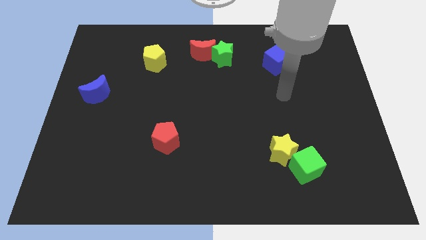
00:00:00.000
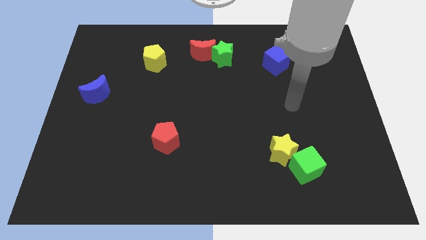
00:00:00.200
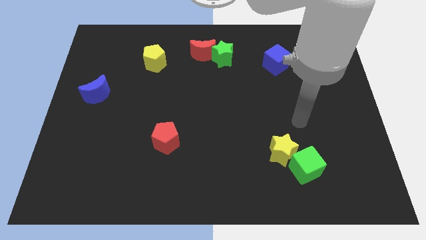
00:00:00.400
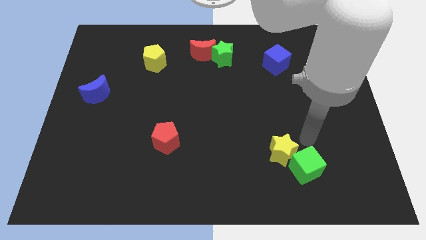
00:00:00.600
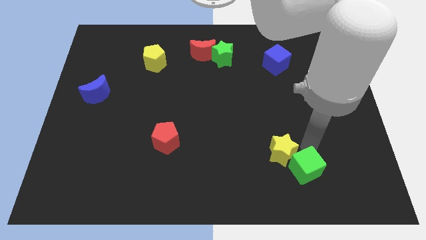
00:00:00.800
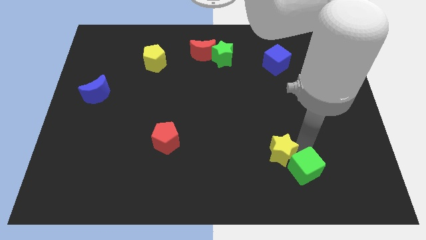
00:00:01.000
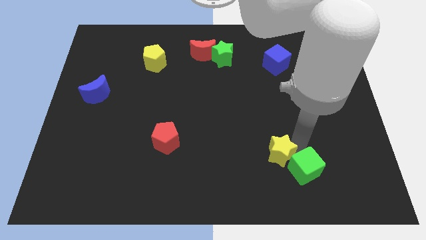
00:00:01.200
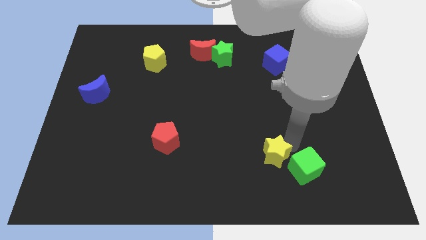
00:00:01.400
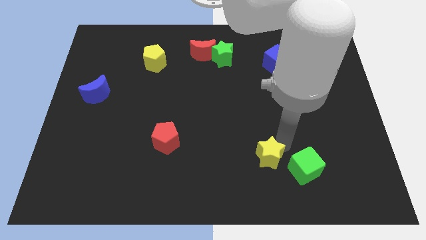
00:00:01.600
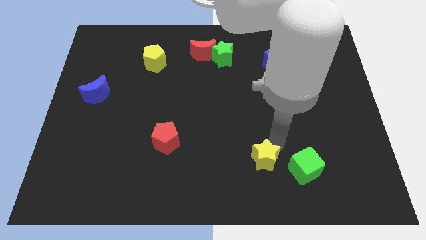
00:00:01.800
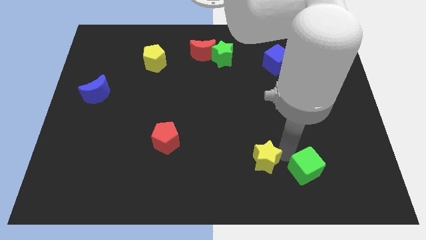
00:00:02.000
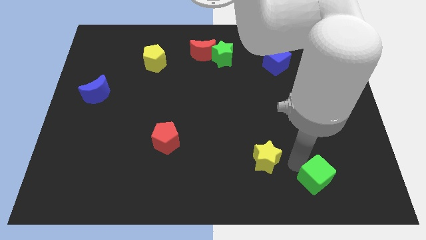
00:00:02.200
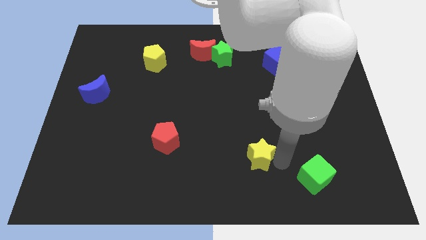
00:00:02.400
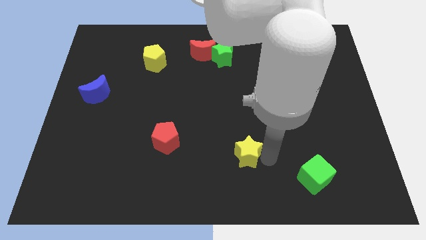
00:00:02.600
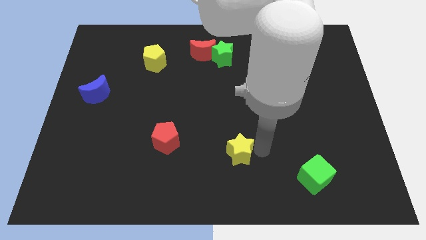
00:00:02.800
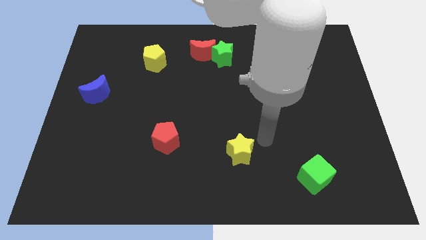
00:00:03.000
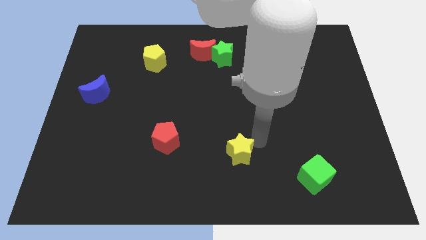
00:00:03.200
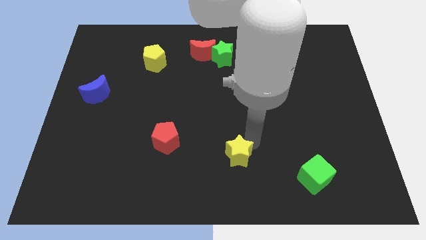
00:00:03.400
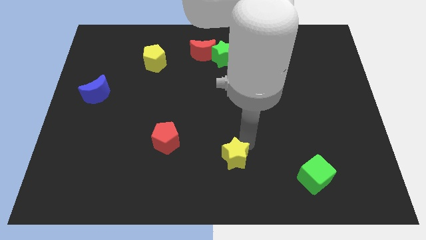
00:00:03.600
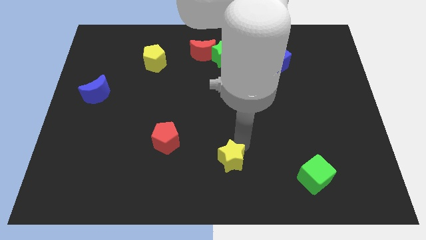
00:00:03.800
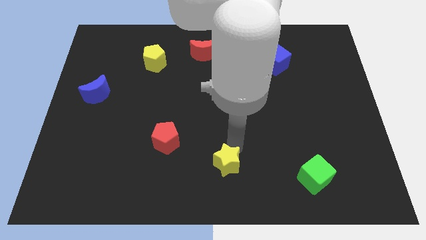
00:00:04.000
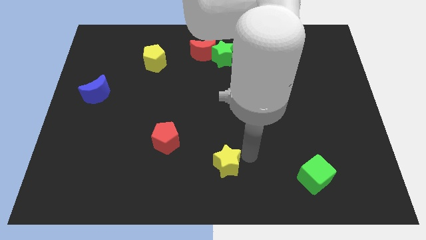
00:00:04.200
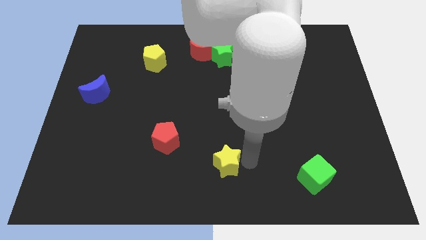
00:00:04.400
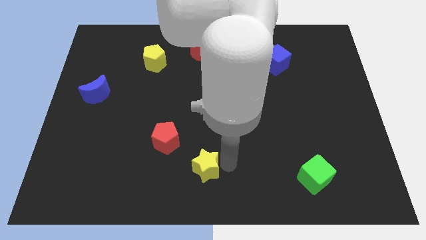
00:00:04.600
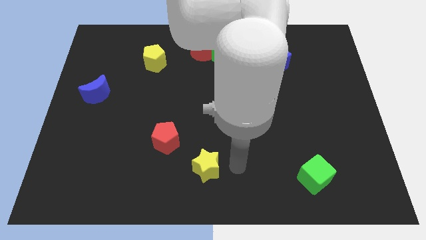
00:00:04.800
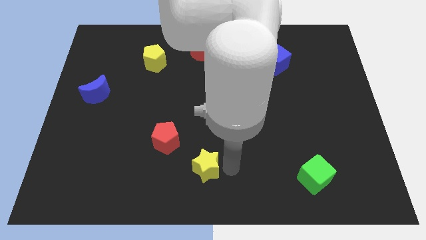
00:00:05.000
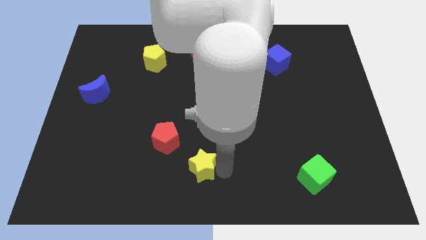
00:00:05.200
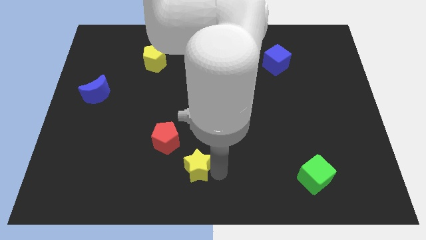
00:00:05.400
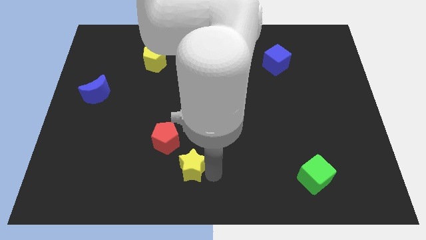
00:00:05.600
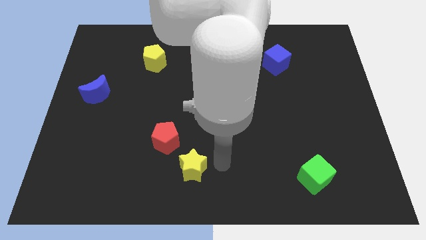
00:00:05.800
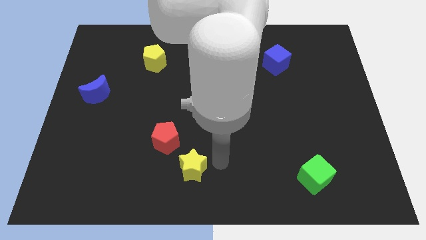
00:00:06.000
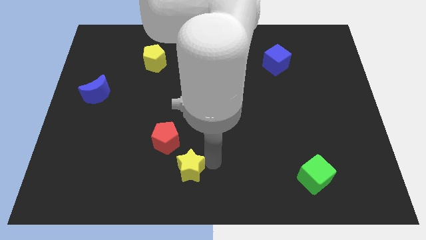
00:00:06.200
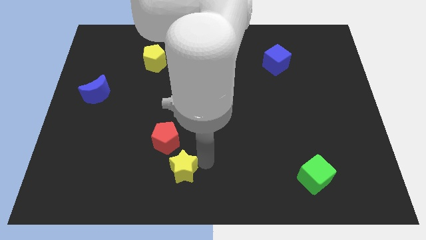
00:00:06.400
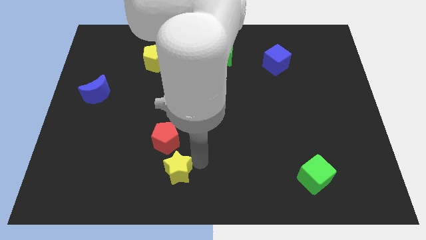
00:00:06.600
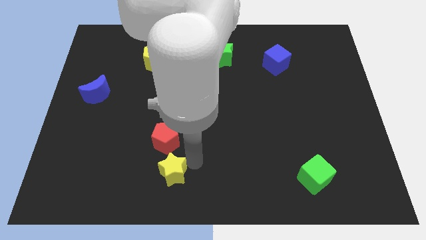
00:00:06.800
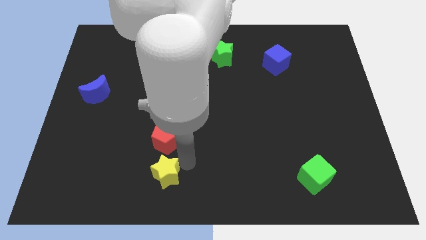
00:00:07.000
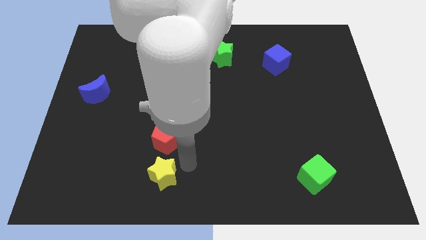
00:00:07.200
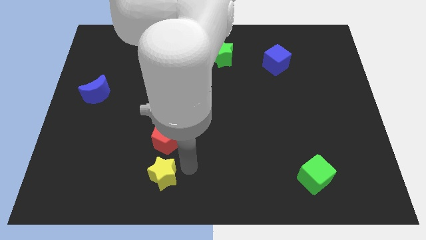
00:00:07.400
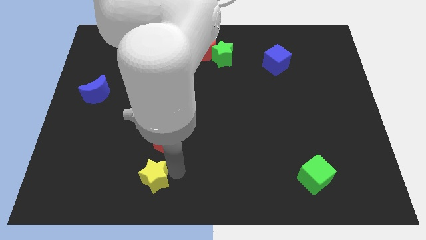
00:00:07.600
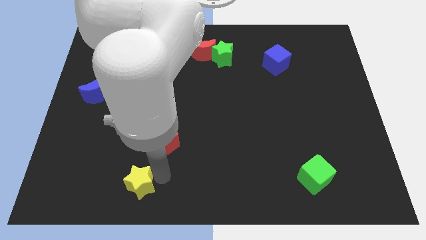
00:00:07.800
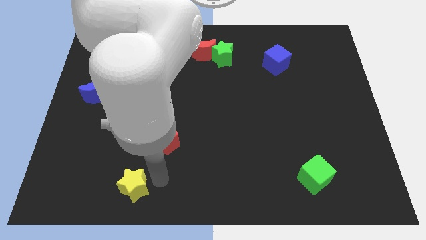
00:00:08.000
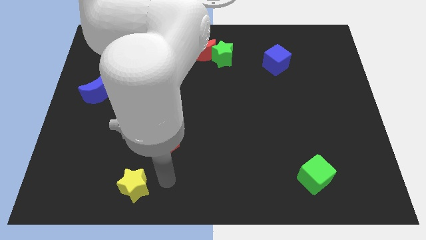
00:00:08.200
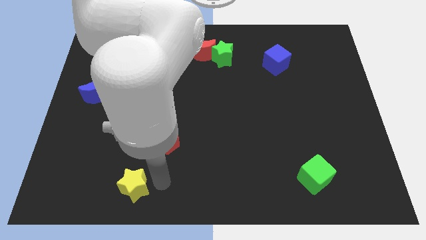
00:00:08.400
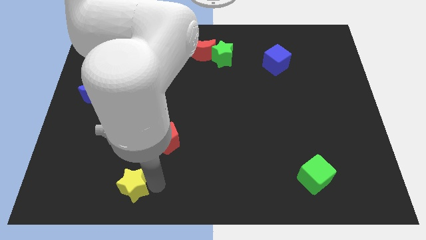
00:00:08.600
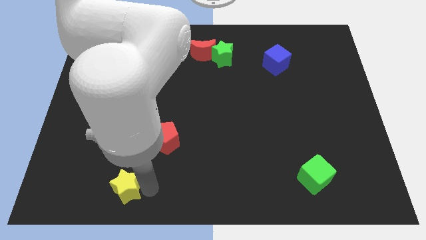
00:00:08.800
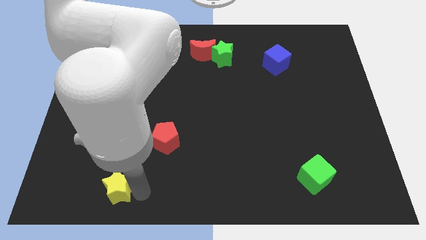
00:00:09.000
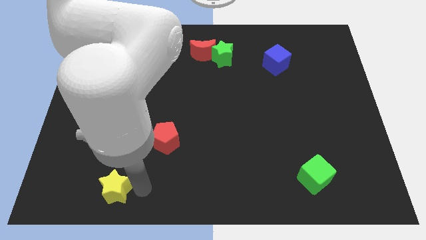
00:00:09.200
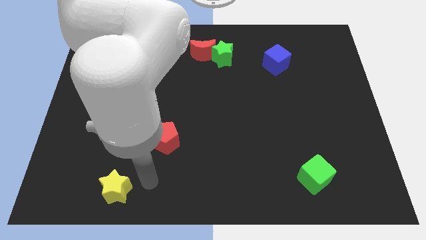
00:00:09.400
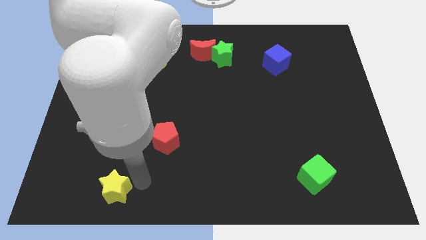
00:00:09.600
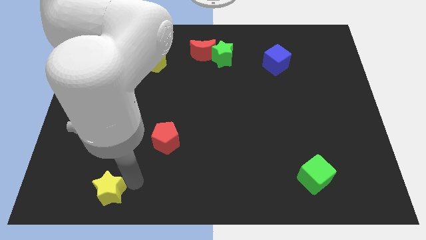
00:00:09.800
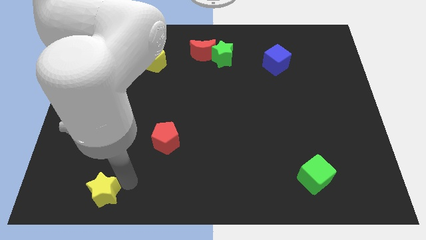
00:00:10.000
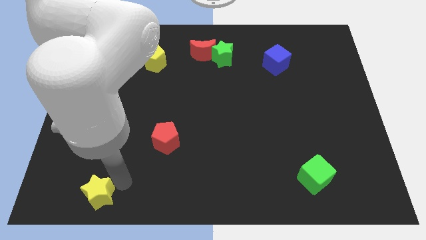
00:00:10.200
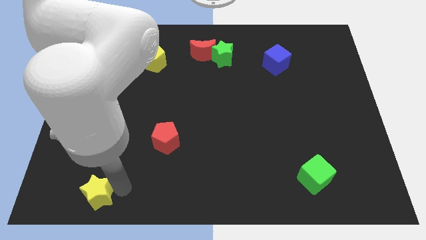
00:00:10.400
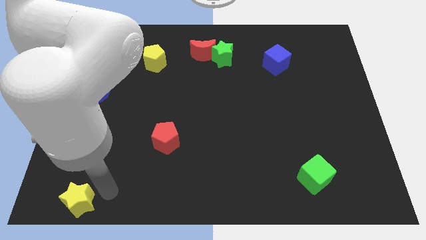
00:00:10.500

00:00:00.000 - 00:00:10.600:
slide the yellow star to the bottom left corner

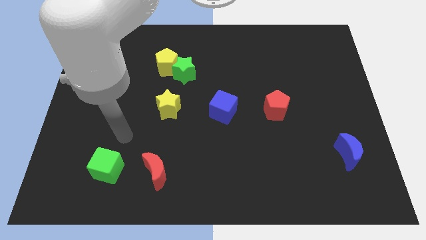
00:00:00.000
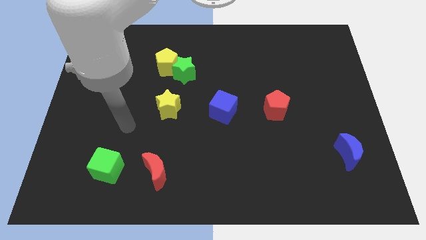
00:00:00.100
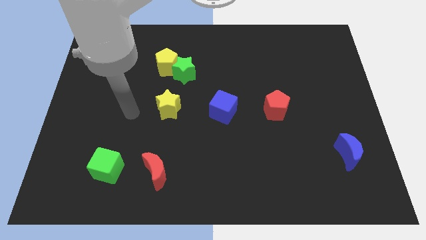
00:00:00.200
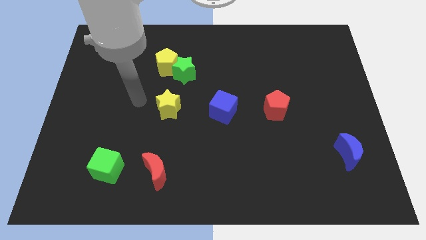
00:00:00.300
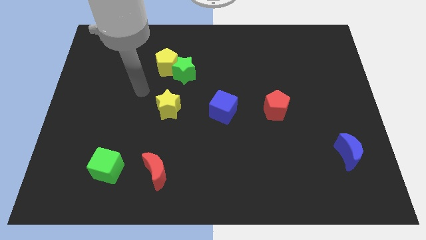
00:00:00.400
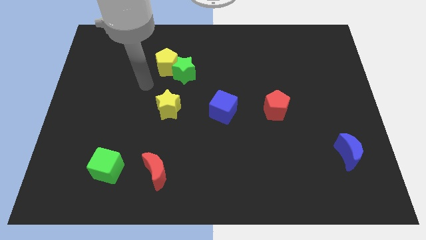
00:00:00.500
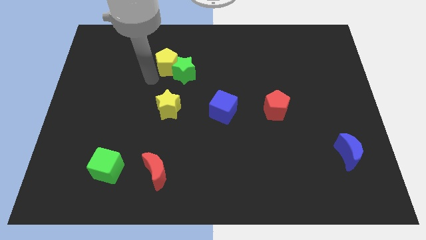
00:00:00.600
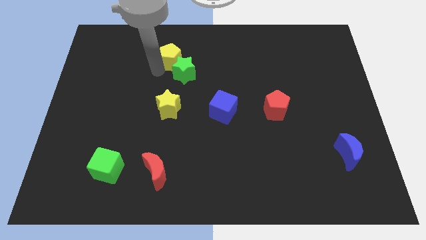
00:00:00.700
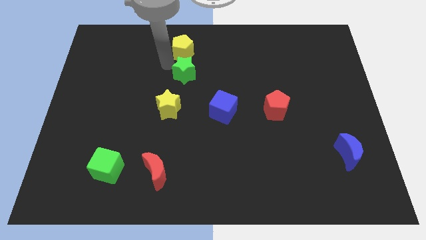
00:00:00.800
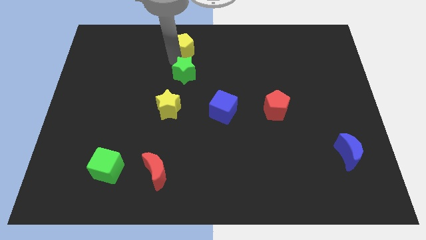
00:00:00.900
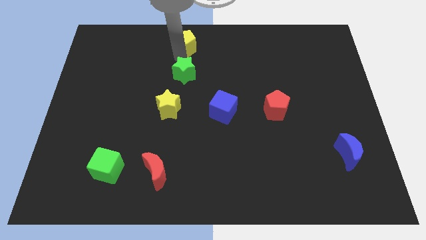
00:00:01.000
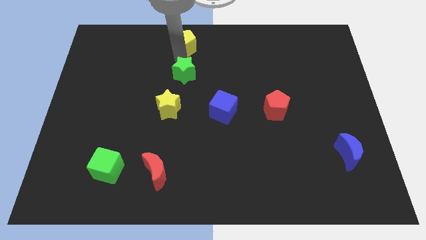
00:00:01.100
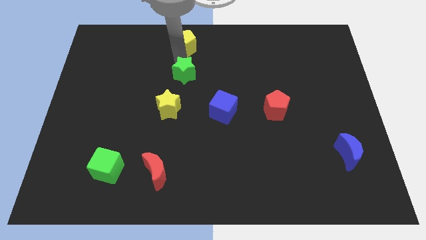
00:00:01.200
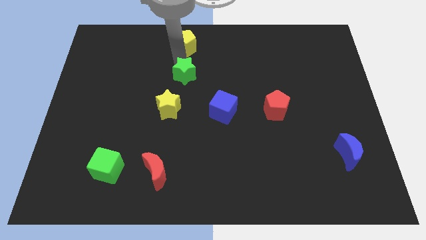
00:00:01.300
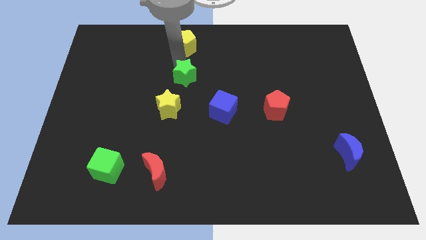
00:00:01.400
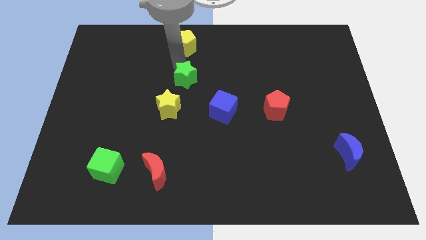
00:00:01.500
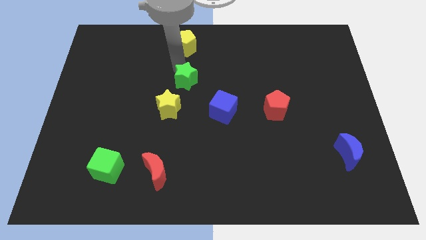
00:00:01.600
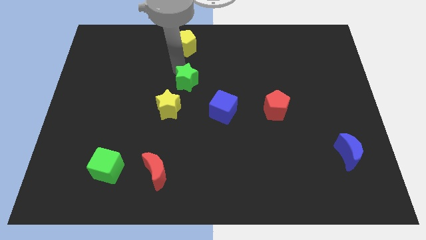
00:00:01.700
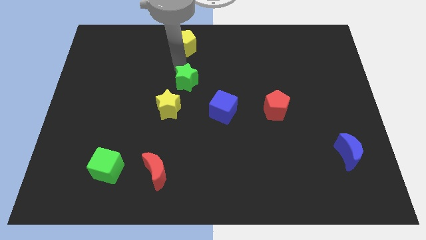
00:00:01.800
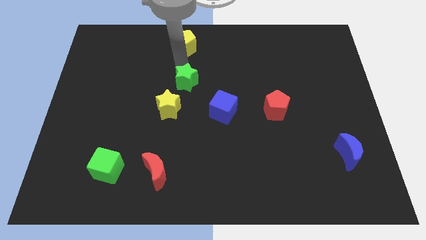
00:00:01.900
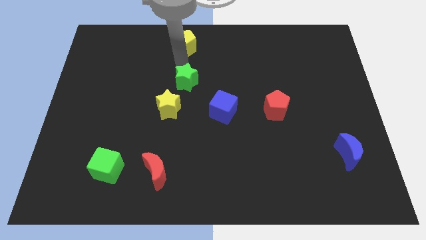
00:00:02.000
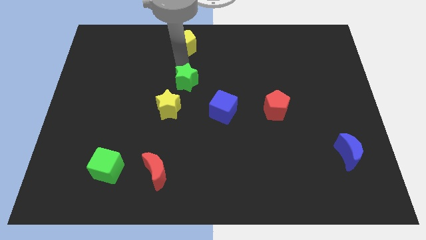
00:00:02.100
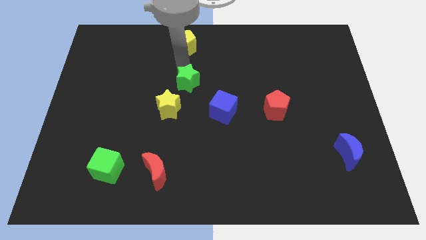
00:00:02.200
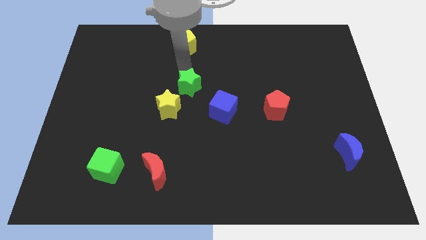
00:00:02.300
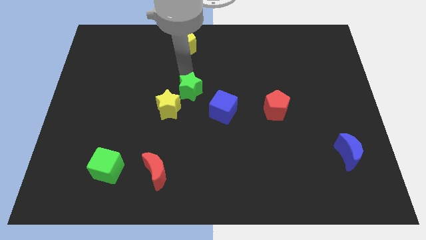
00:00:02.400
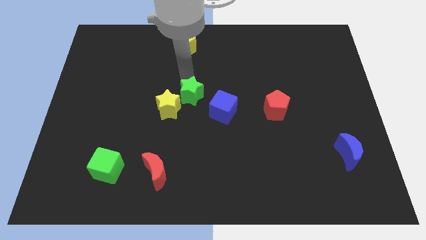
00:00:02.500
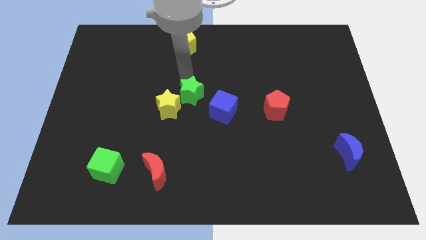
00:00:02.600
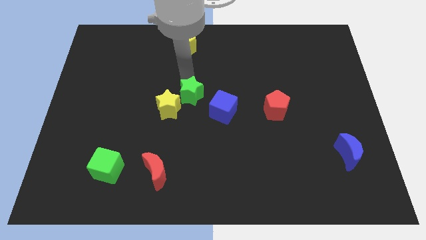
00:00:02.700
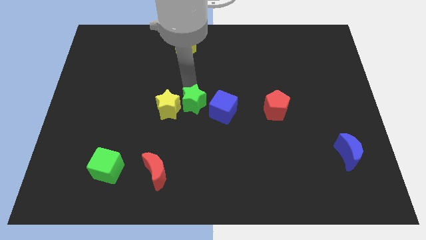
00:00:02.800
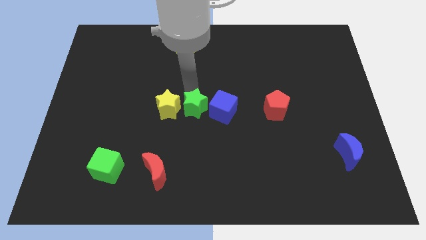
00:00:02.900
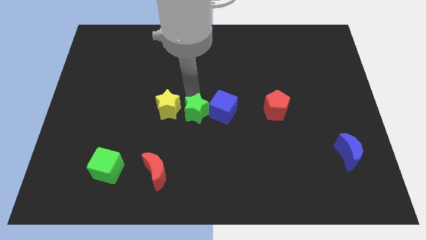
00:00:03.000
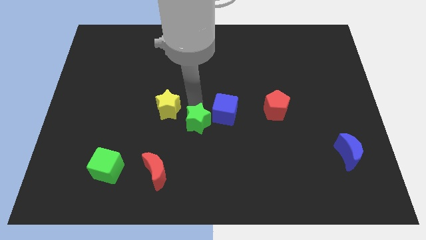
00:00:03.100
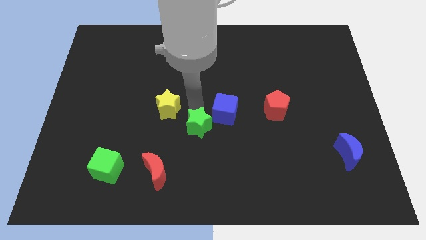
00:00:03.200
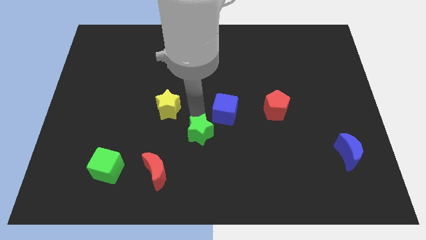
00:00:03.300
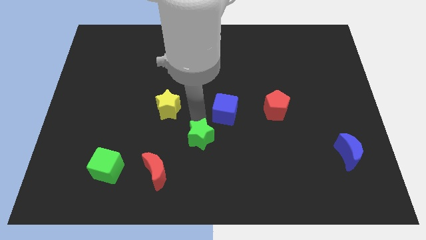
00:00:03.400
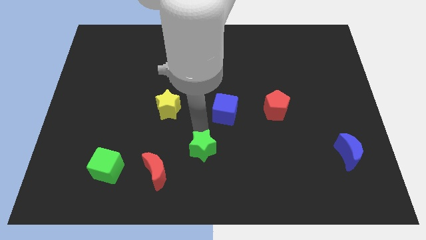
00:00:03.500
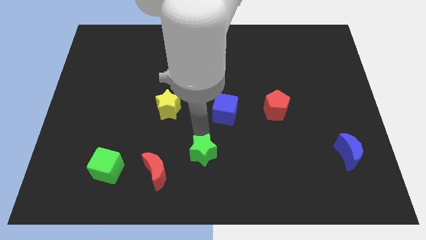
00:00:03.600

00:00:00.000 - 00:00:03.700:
push the green star to the bottom side
